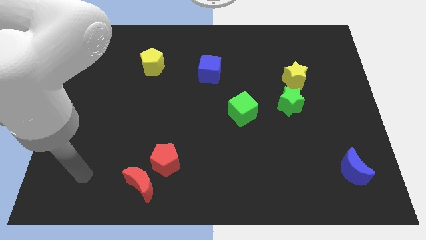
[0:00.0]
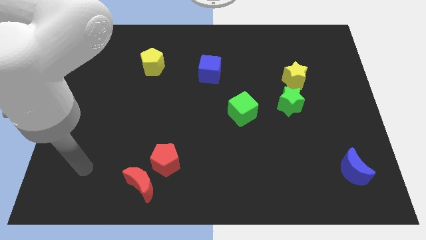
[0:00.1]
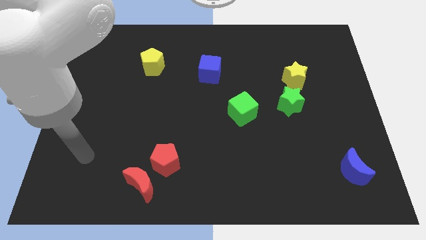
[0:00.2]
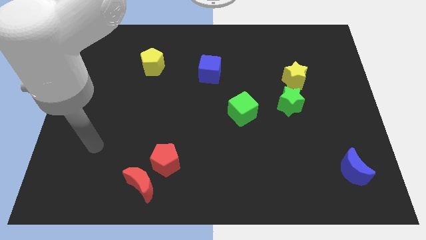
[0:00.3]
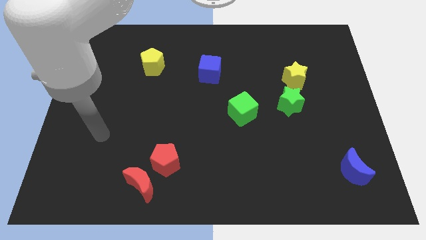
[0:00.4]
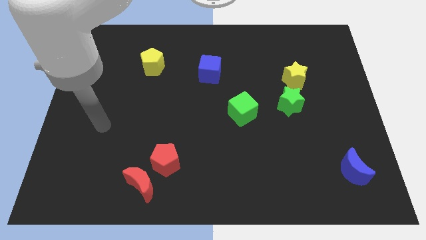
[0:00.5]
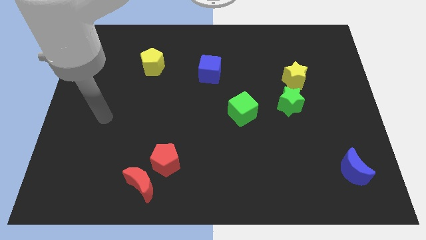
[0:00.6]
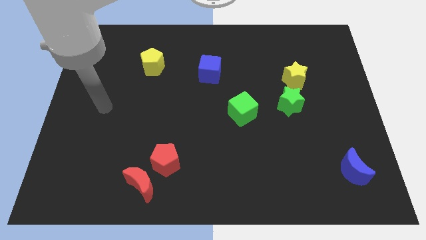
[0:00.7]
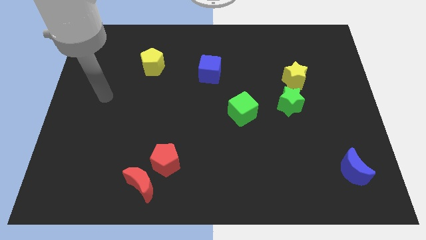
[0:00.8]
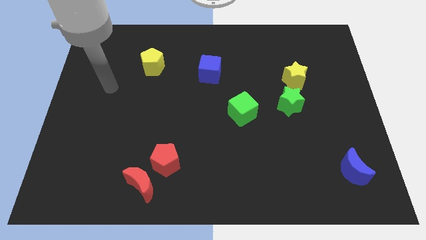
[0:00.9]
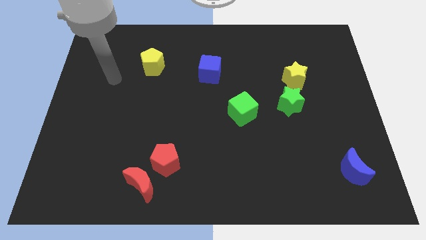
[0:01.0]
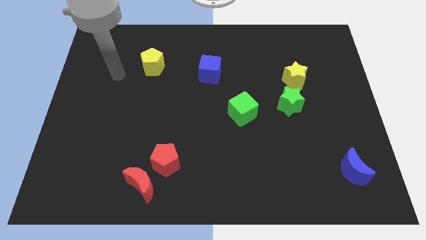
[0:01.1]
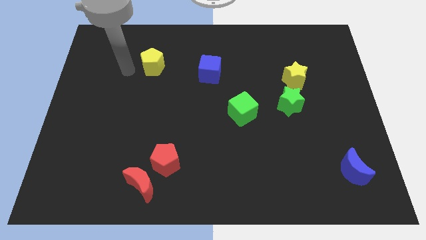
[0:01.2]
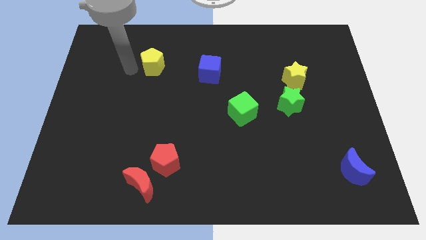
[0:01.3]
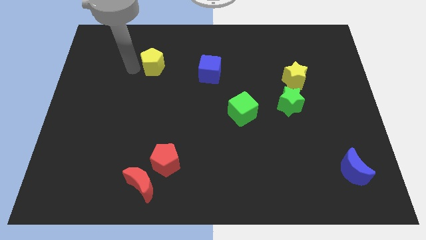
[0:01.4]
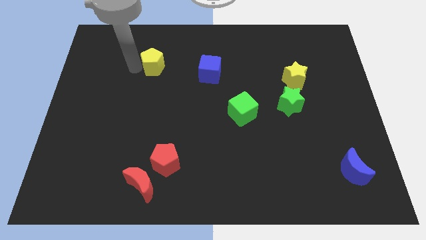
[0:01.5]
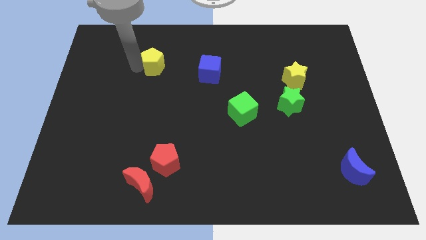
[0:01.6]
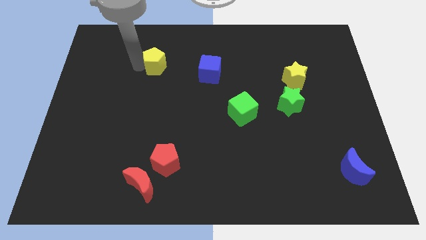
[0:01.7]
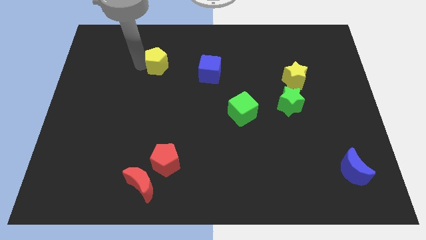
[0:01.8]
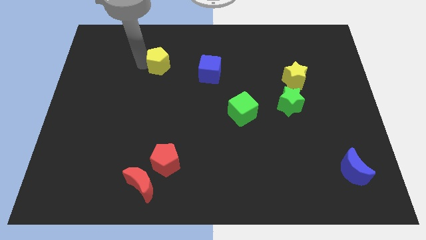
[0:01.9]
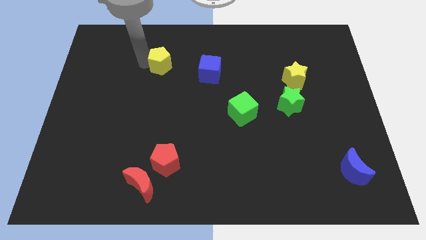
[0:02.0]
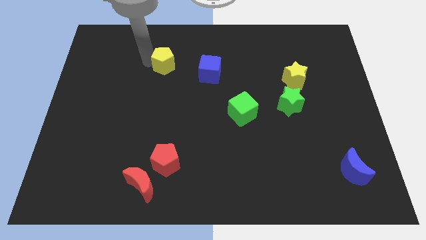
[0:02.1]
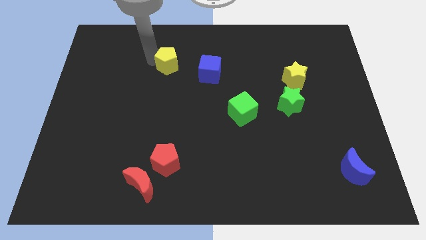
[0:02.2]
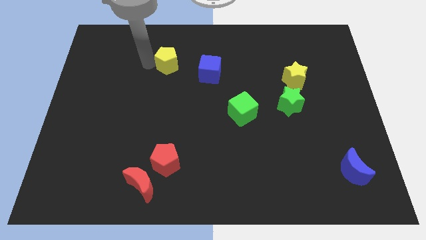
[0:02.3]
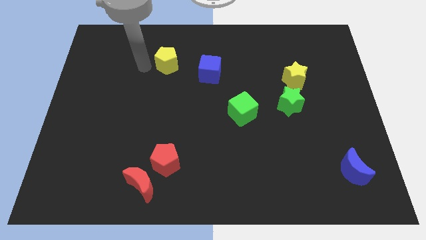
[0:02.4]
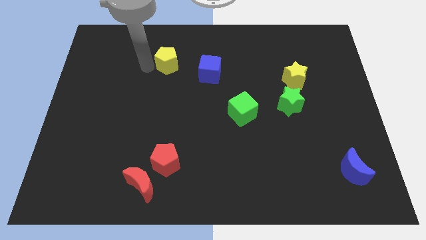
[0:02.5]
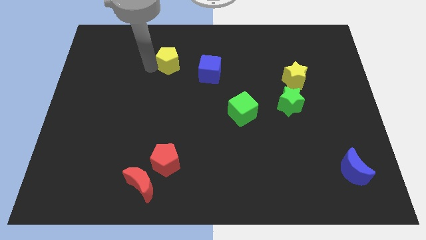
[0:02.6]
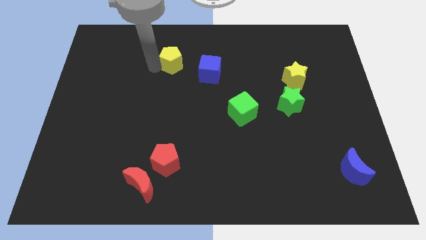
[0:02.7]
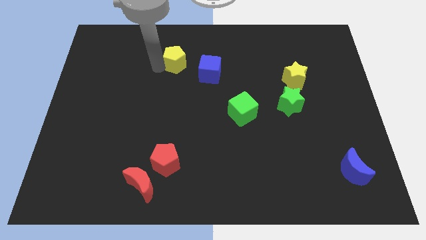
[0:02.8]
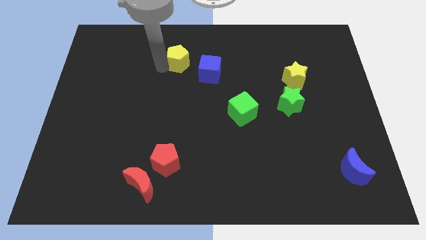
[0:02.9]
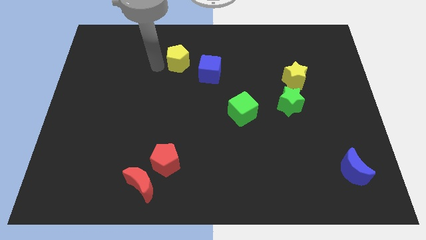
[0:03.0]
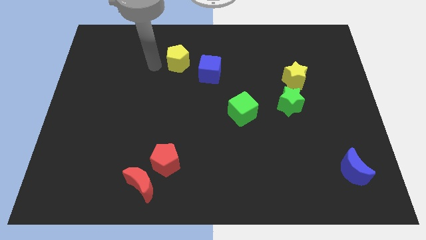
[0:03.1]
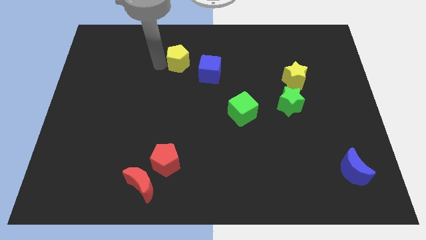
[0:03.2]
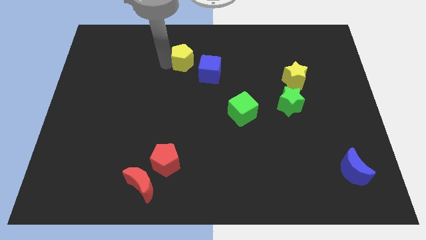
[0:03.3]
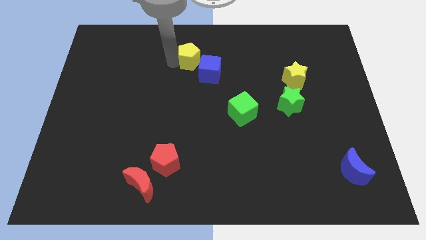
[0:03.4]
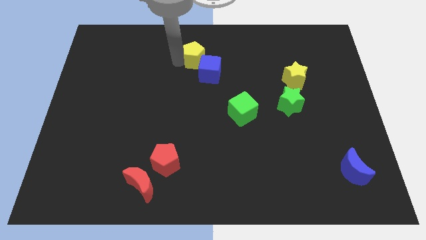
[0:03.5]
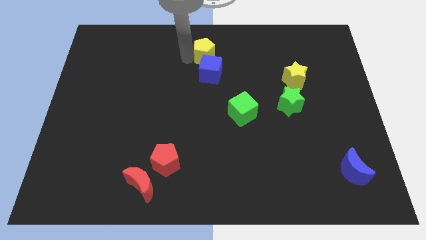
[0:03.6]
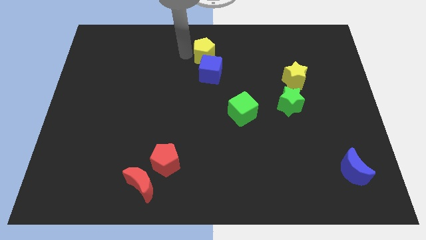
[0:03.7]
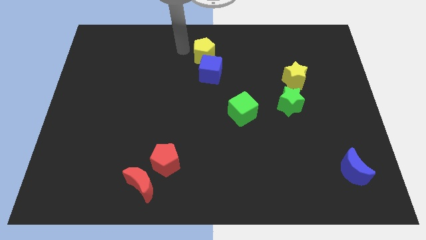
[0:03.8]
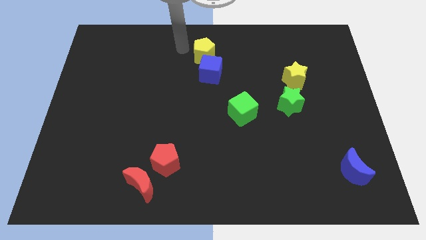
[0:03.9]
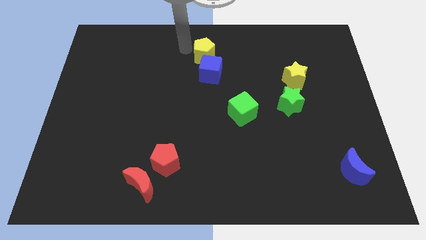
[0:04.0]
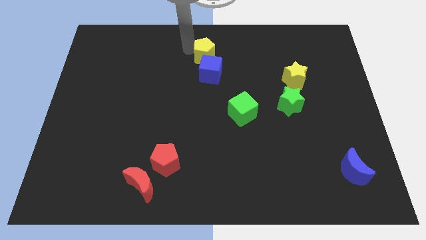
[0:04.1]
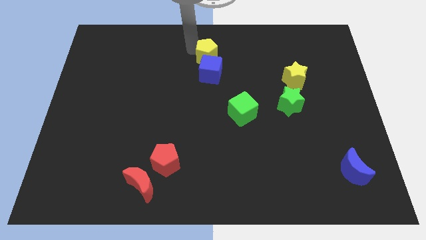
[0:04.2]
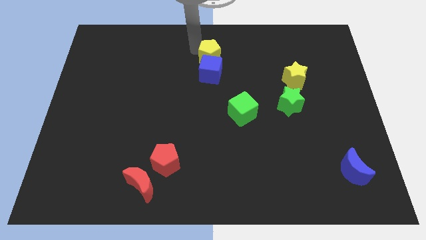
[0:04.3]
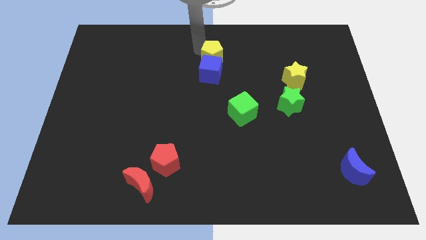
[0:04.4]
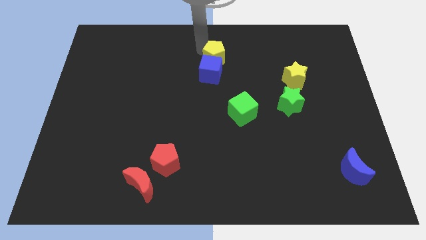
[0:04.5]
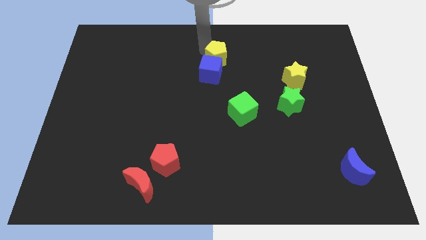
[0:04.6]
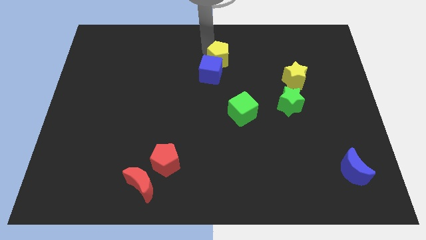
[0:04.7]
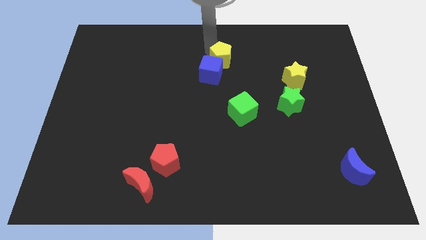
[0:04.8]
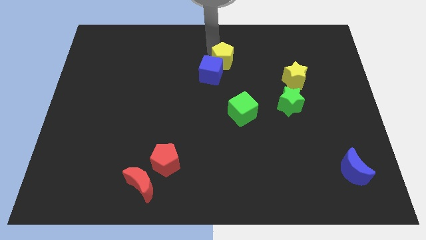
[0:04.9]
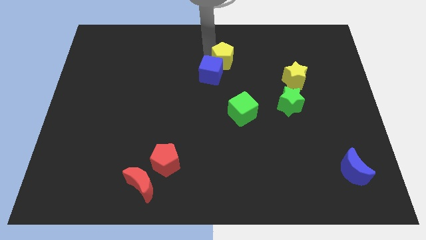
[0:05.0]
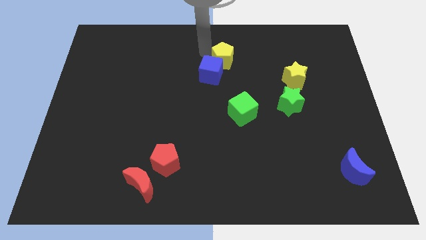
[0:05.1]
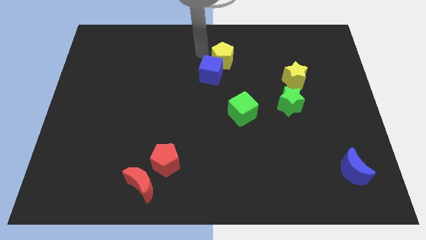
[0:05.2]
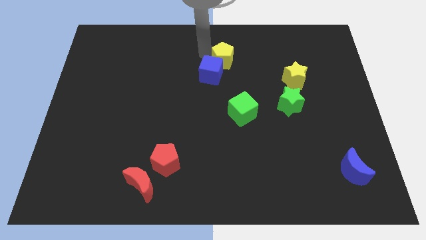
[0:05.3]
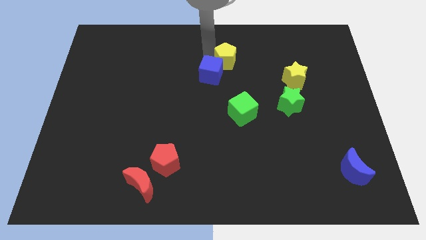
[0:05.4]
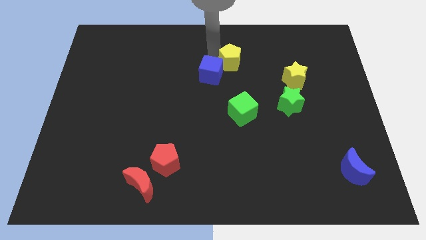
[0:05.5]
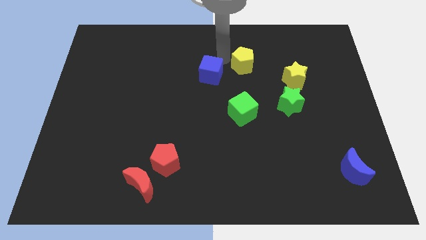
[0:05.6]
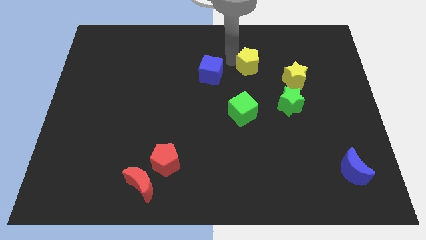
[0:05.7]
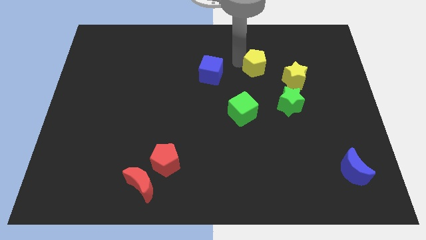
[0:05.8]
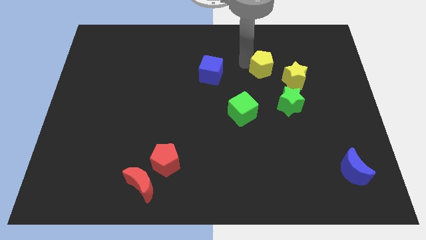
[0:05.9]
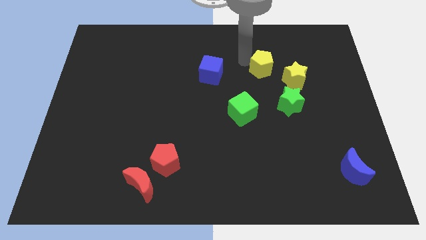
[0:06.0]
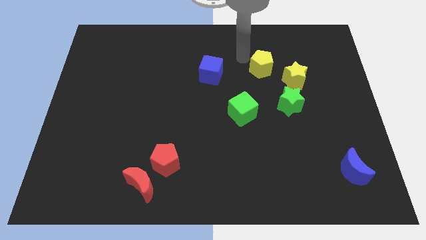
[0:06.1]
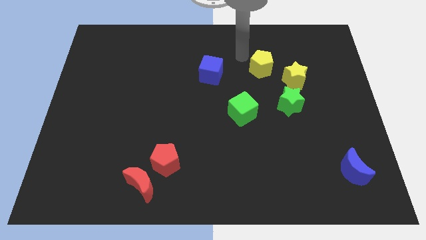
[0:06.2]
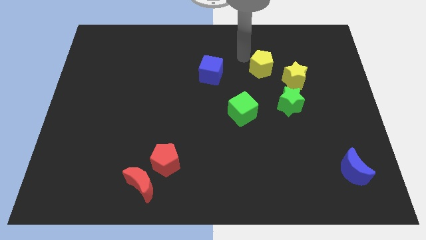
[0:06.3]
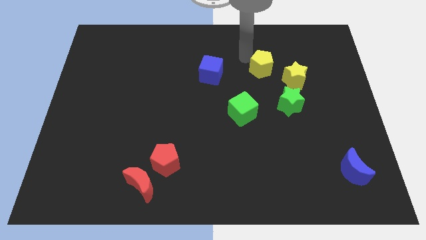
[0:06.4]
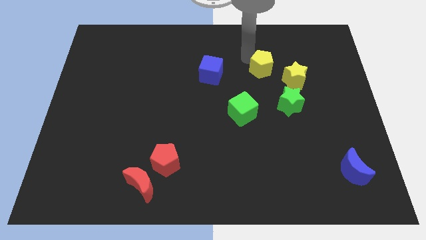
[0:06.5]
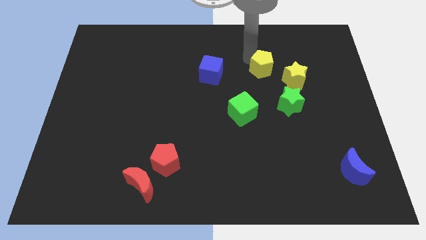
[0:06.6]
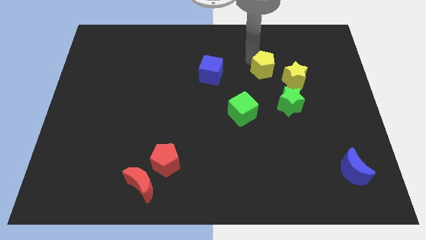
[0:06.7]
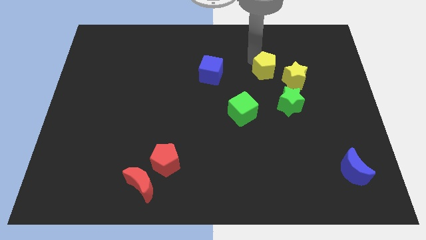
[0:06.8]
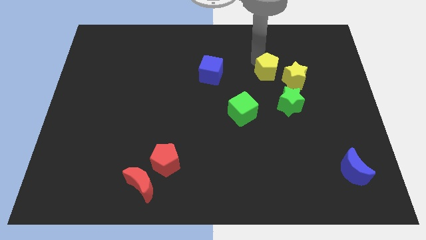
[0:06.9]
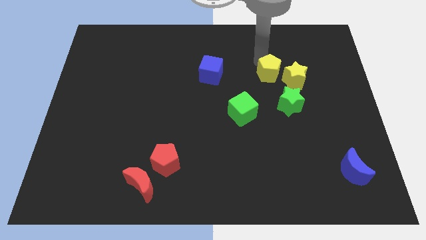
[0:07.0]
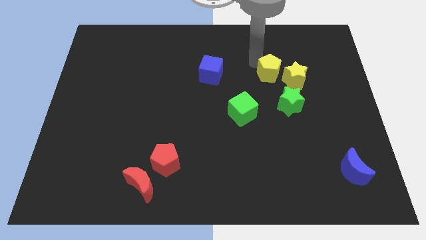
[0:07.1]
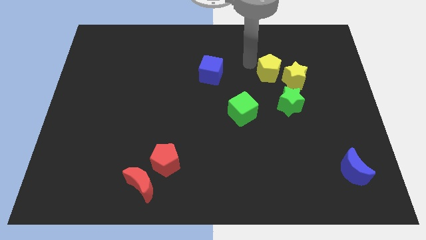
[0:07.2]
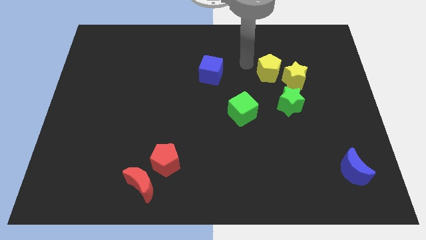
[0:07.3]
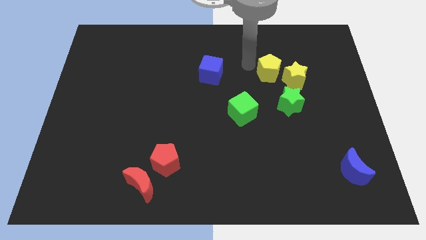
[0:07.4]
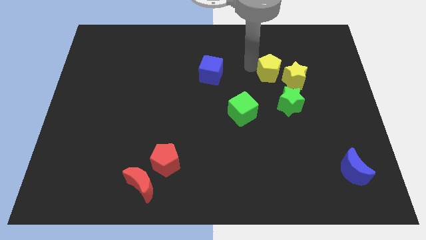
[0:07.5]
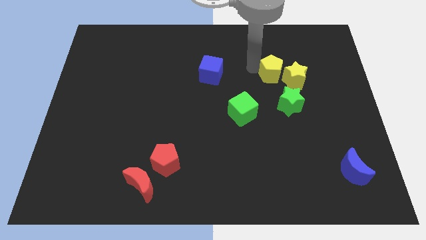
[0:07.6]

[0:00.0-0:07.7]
slide the yellow pentagon close to the yellow star

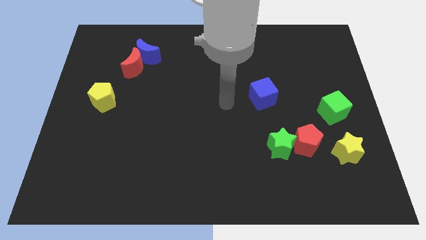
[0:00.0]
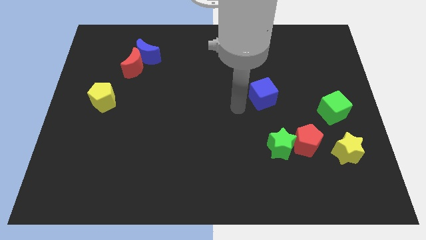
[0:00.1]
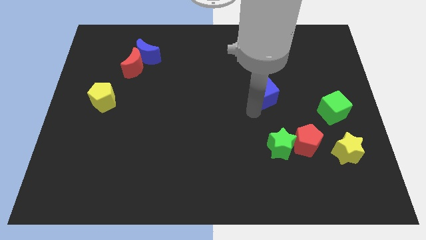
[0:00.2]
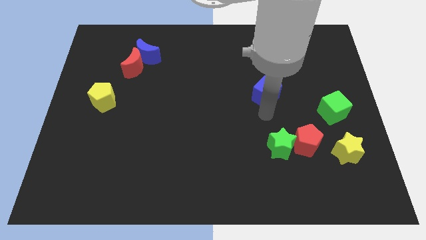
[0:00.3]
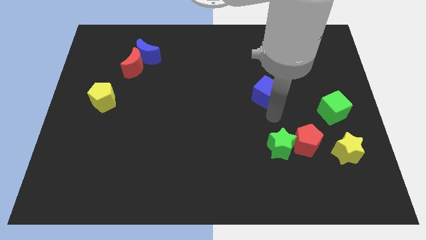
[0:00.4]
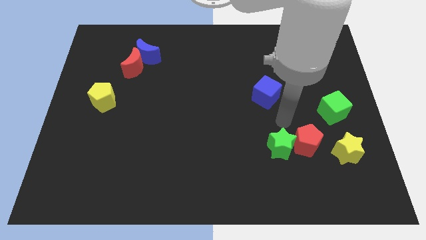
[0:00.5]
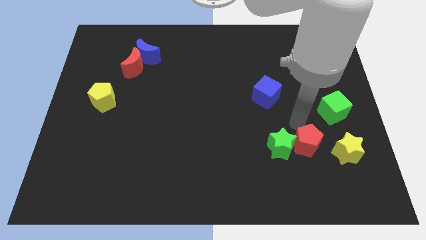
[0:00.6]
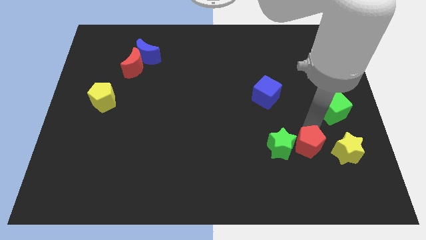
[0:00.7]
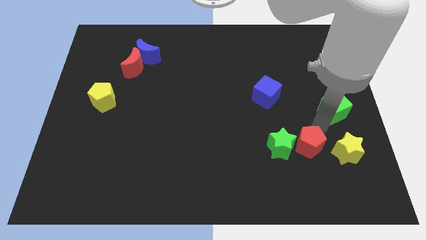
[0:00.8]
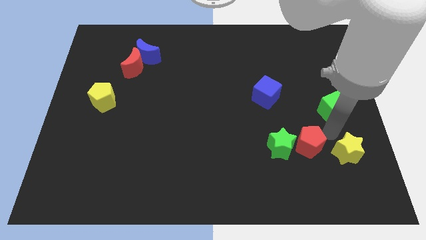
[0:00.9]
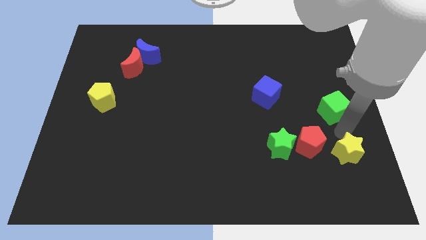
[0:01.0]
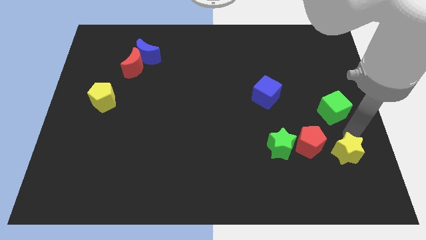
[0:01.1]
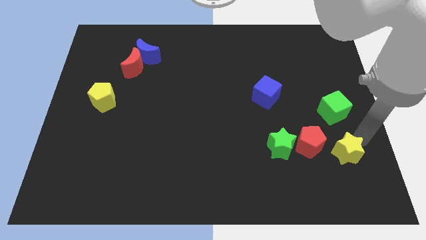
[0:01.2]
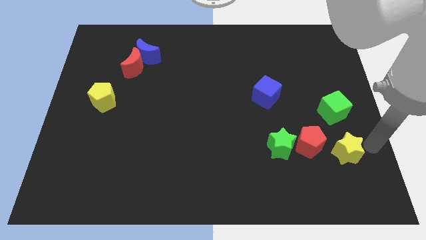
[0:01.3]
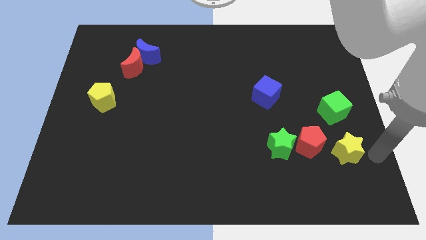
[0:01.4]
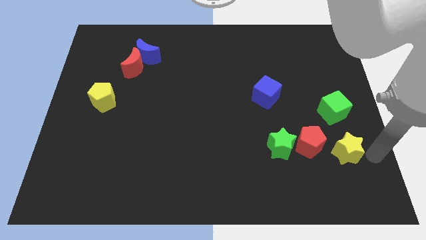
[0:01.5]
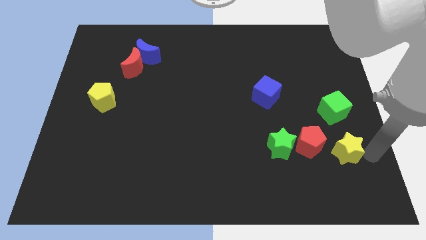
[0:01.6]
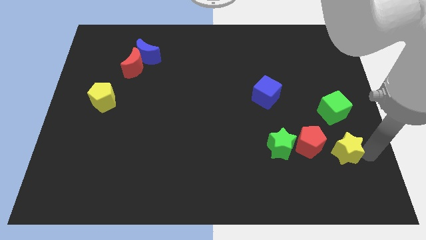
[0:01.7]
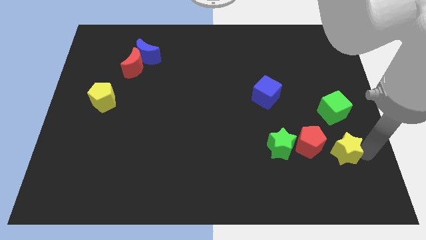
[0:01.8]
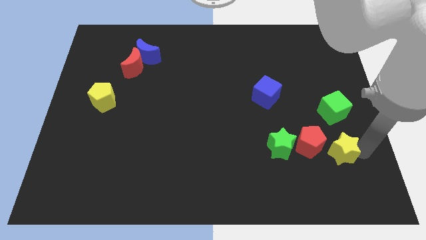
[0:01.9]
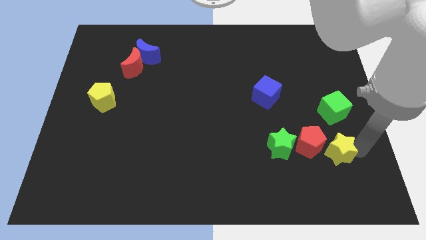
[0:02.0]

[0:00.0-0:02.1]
slide the yellow star to the red pentagon
